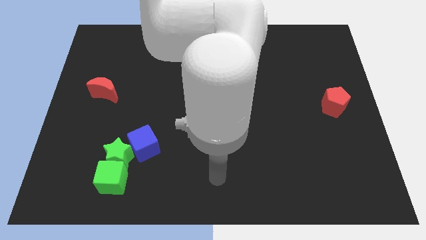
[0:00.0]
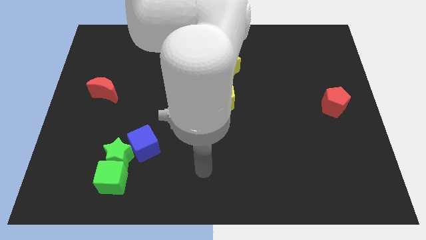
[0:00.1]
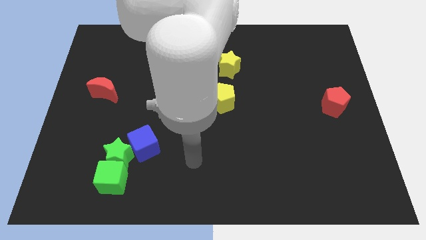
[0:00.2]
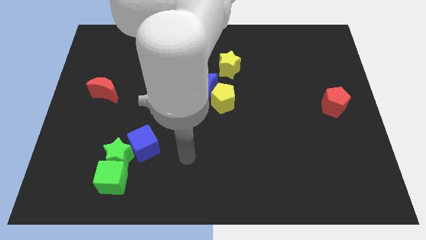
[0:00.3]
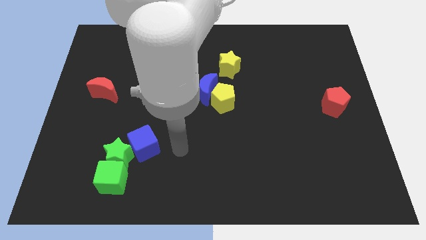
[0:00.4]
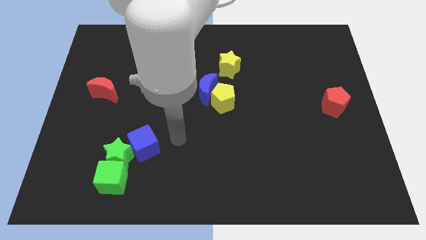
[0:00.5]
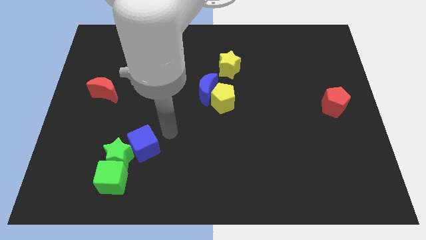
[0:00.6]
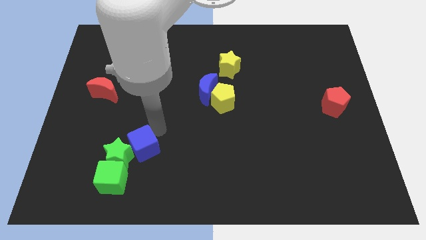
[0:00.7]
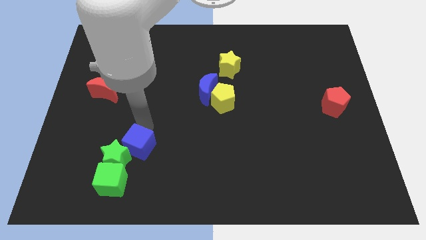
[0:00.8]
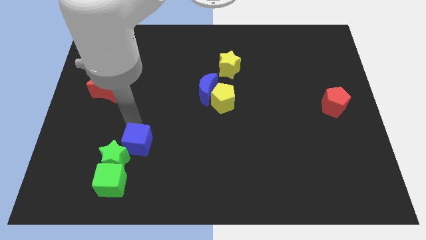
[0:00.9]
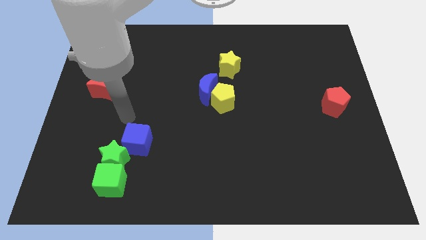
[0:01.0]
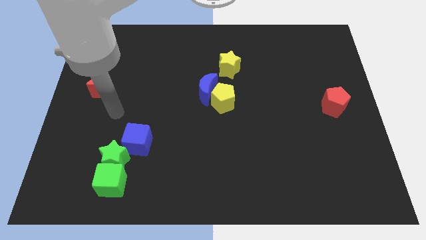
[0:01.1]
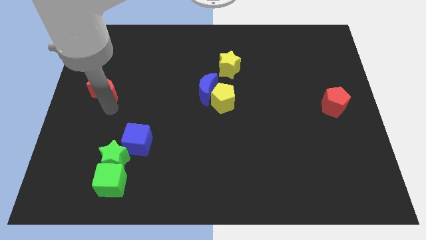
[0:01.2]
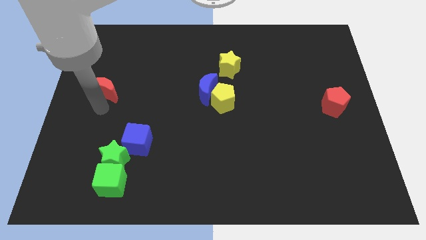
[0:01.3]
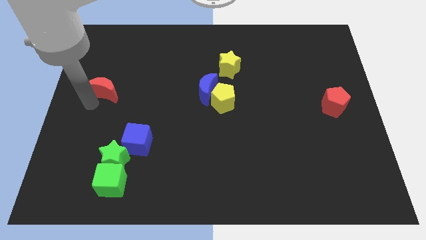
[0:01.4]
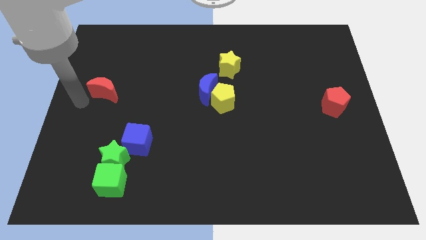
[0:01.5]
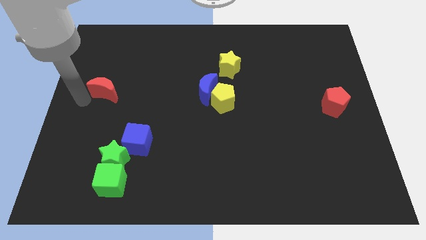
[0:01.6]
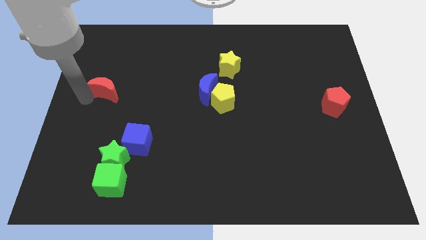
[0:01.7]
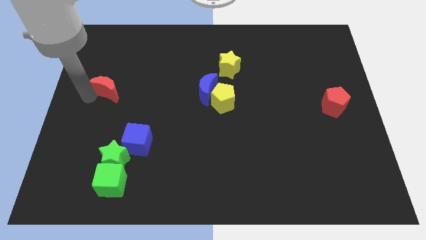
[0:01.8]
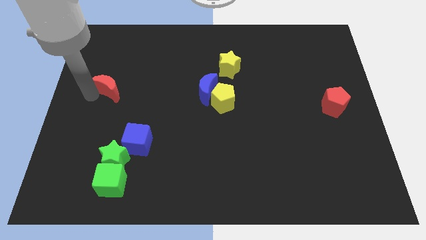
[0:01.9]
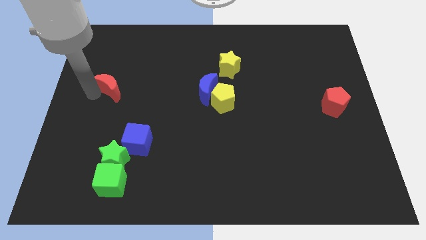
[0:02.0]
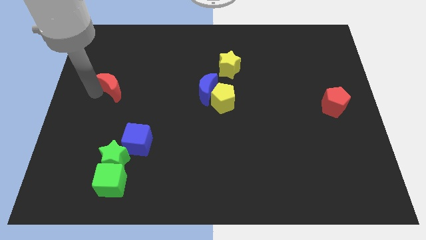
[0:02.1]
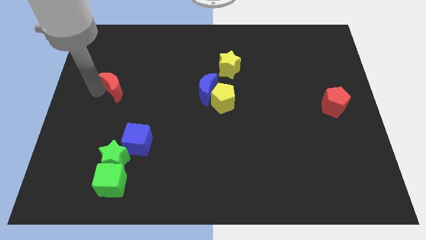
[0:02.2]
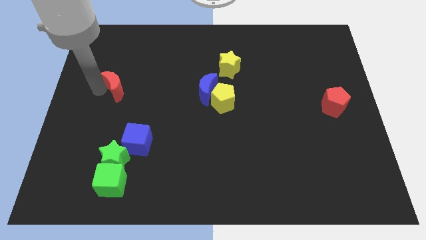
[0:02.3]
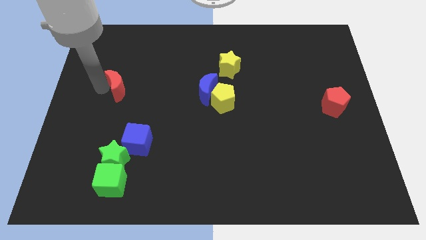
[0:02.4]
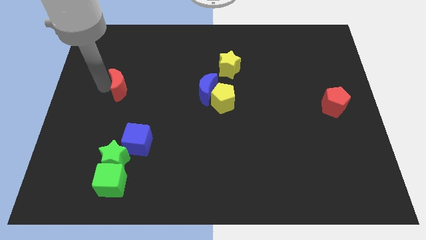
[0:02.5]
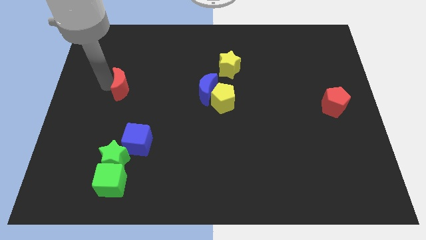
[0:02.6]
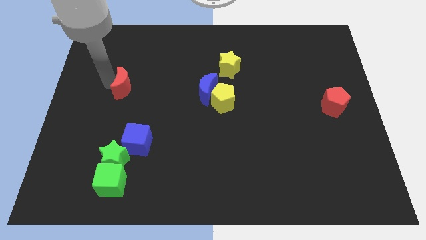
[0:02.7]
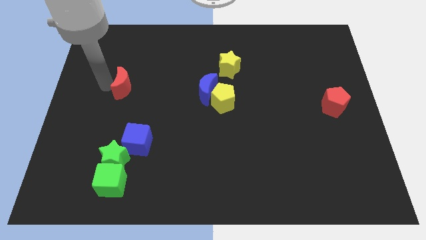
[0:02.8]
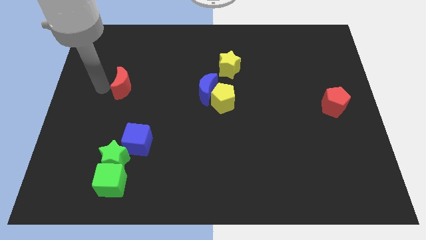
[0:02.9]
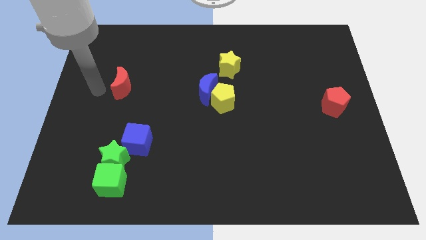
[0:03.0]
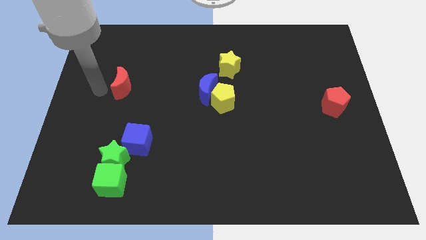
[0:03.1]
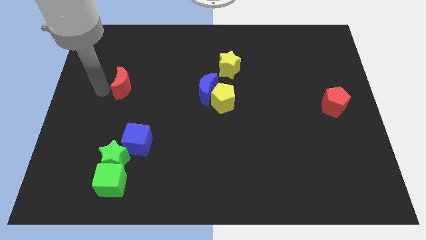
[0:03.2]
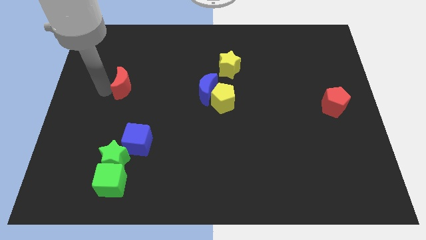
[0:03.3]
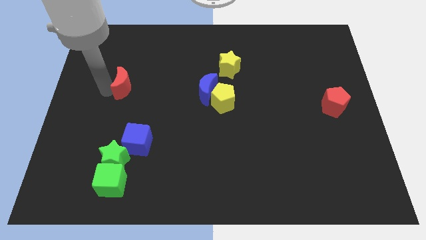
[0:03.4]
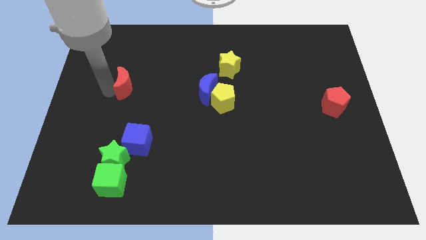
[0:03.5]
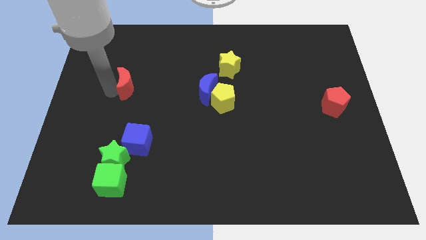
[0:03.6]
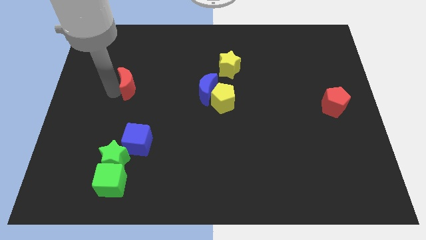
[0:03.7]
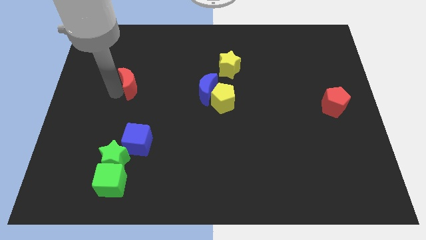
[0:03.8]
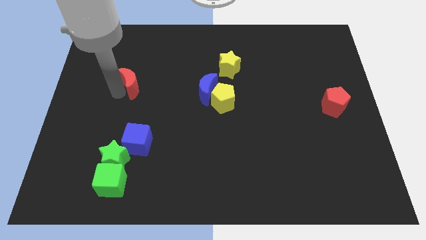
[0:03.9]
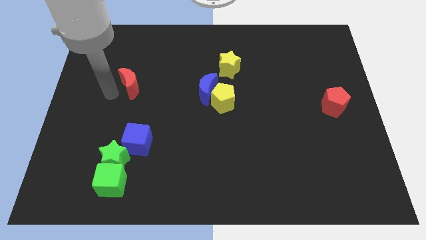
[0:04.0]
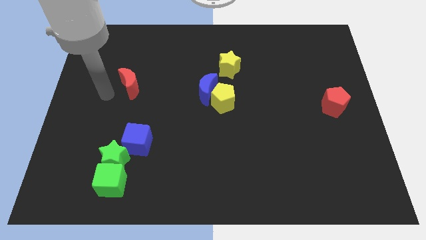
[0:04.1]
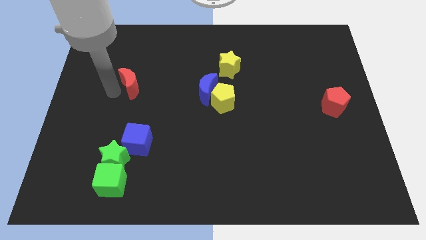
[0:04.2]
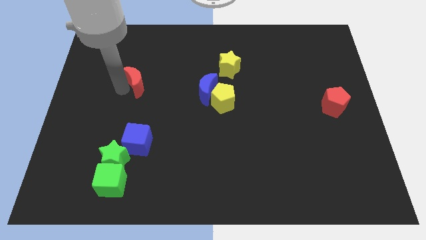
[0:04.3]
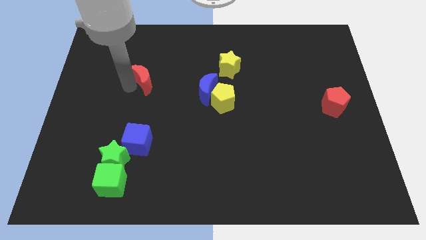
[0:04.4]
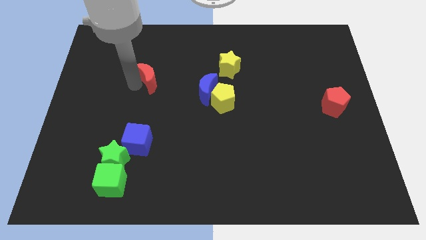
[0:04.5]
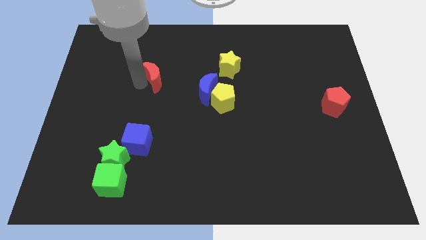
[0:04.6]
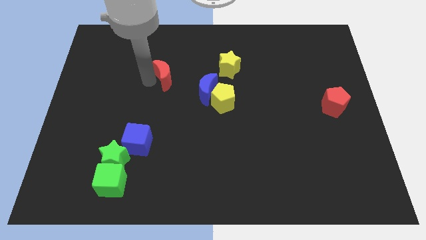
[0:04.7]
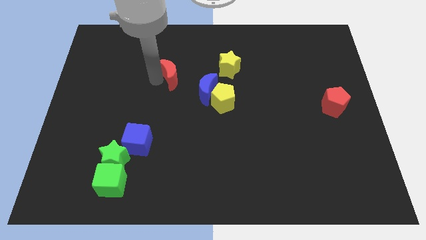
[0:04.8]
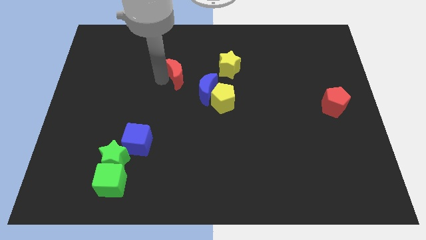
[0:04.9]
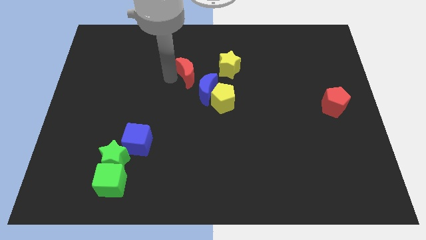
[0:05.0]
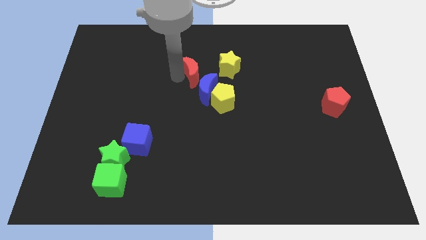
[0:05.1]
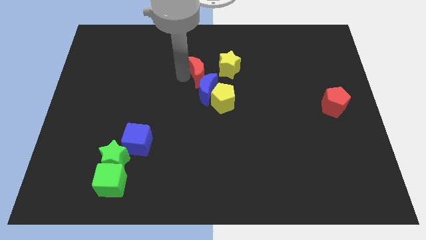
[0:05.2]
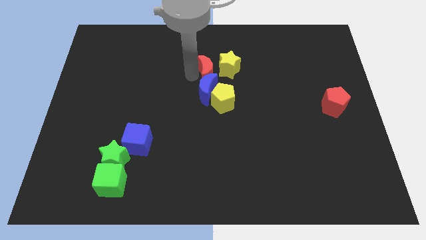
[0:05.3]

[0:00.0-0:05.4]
put the red moon next to the yellow star

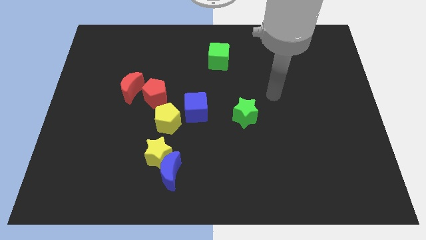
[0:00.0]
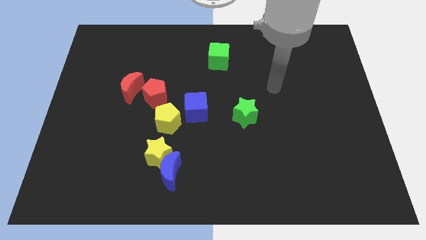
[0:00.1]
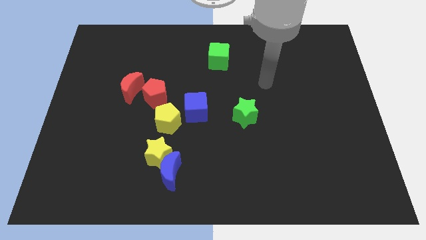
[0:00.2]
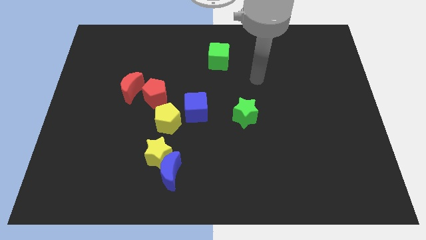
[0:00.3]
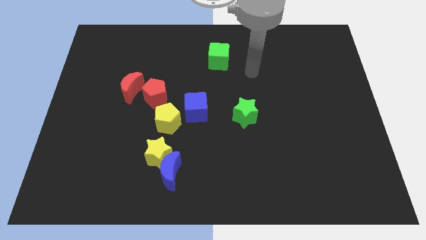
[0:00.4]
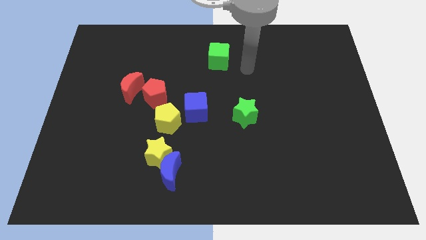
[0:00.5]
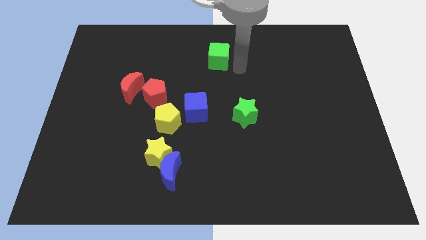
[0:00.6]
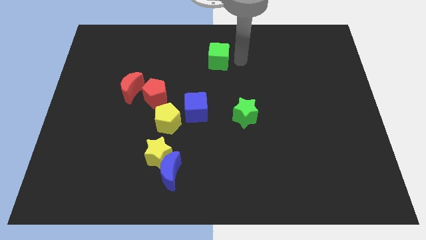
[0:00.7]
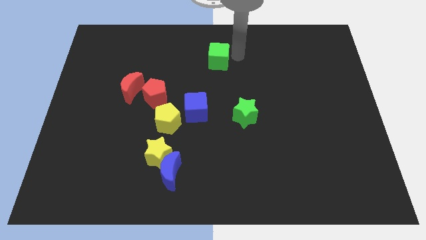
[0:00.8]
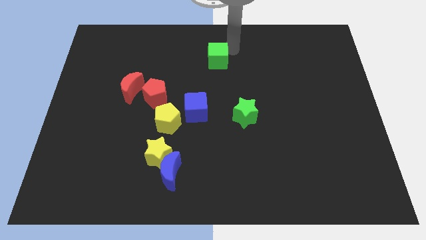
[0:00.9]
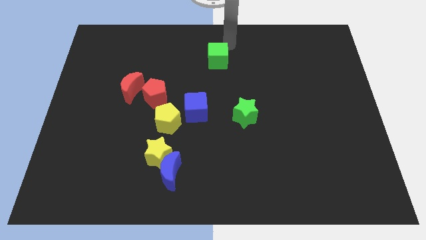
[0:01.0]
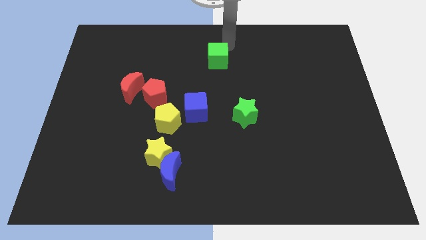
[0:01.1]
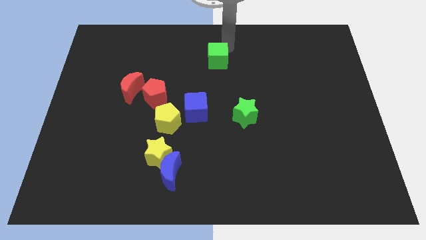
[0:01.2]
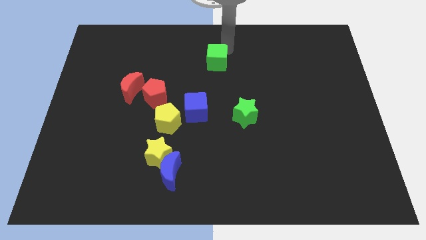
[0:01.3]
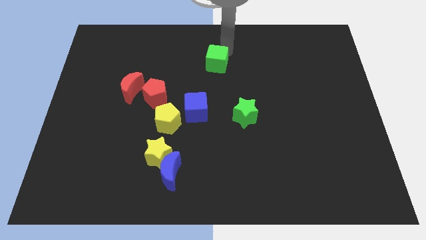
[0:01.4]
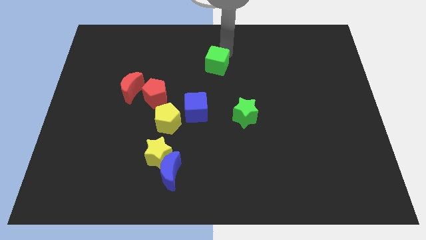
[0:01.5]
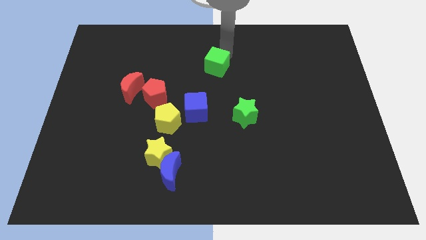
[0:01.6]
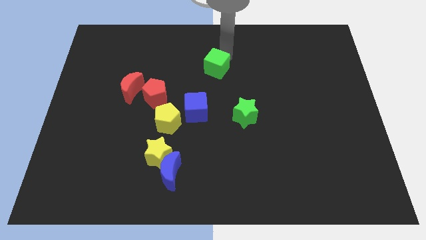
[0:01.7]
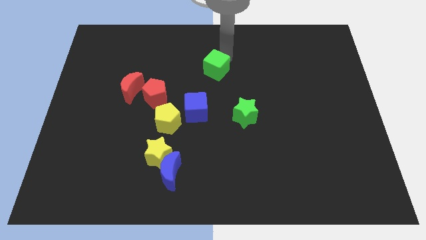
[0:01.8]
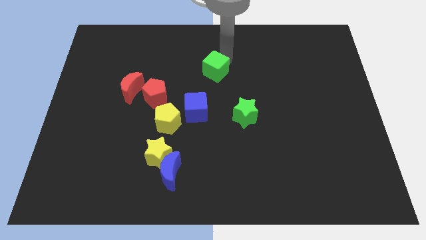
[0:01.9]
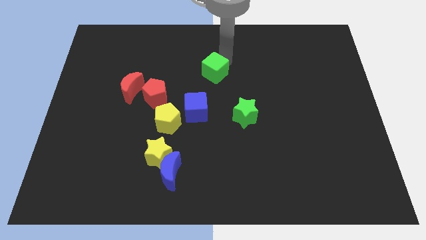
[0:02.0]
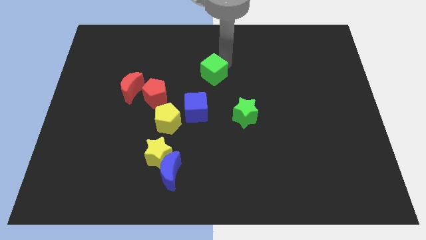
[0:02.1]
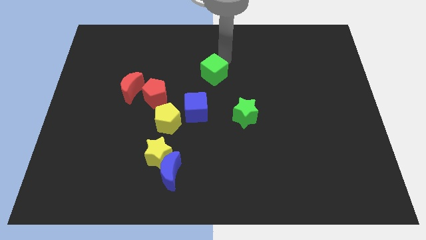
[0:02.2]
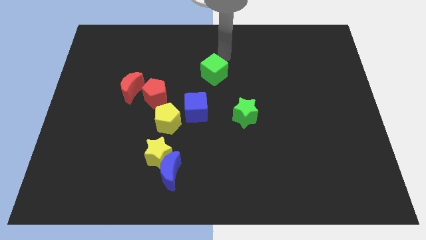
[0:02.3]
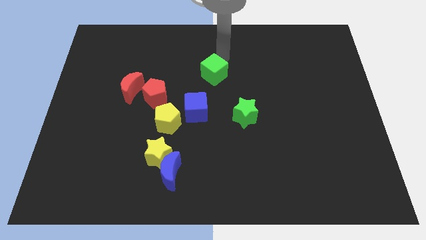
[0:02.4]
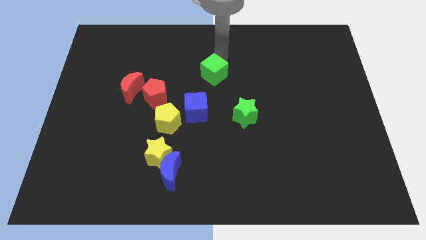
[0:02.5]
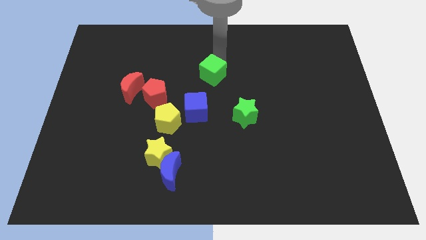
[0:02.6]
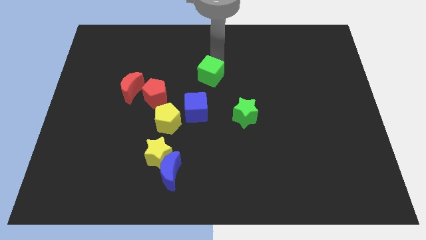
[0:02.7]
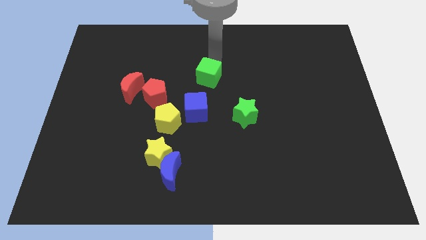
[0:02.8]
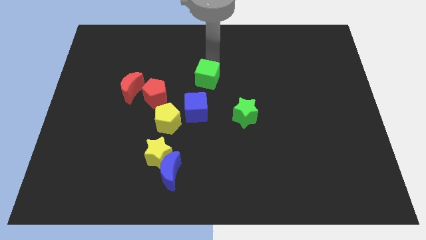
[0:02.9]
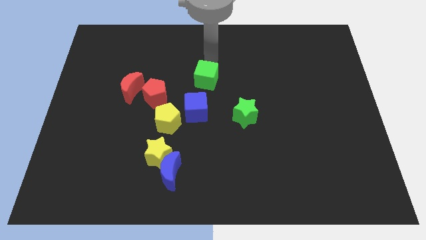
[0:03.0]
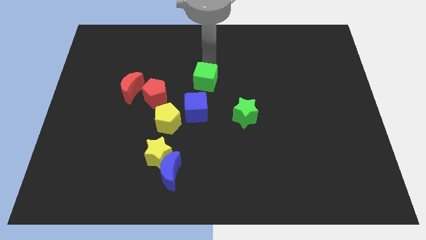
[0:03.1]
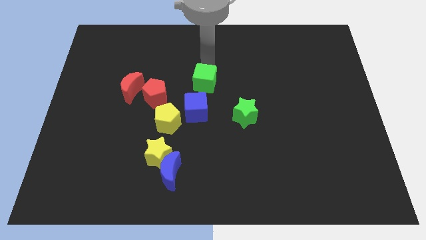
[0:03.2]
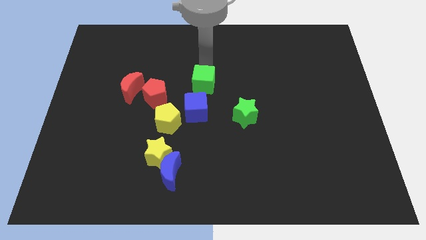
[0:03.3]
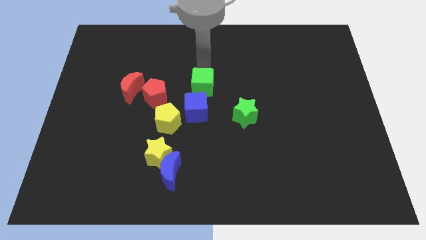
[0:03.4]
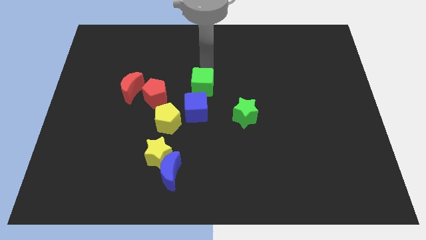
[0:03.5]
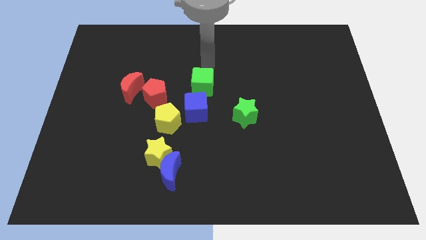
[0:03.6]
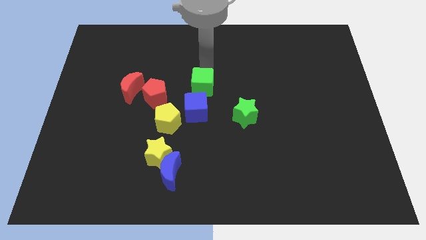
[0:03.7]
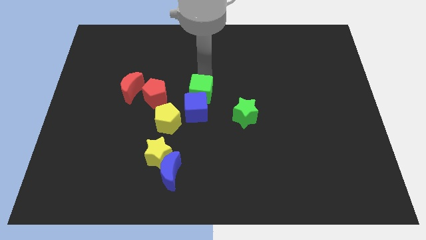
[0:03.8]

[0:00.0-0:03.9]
push the green cube next to the blue cube
